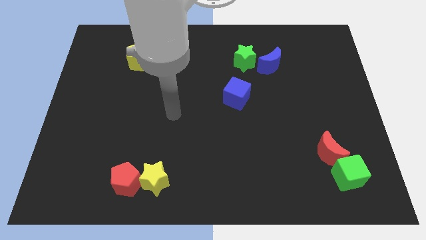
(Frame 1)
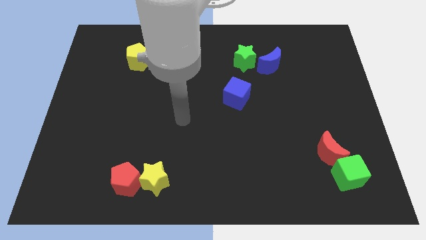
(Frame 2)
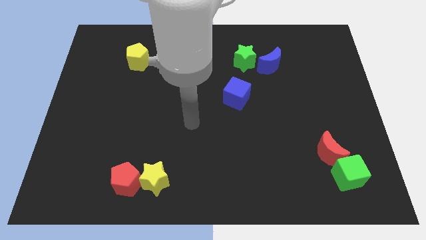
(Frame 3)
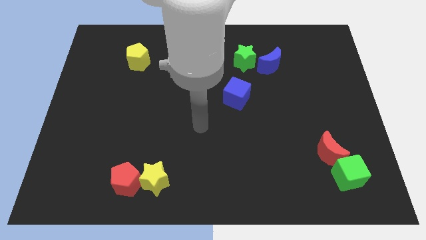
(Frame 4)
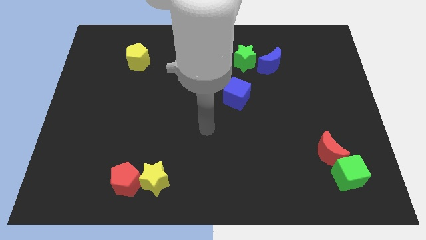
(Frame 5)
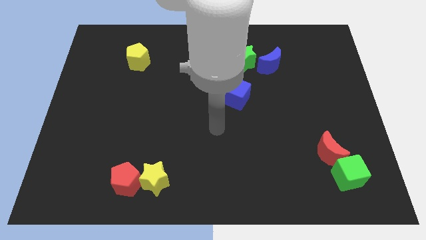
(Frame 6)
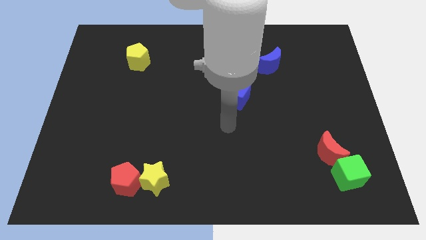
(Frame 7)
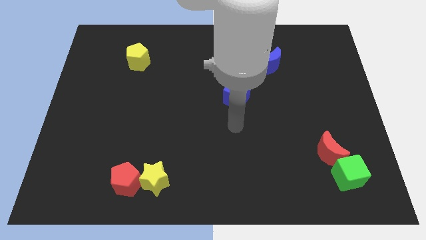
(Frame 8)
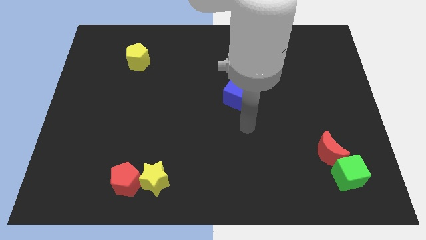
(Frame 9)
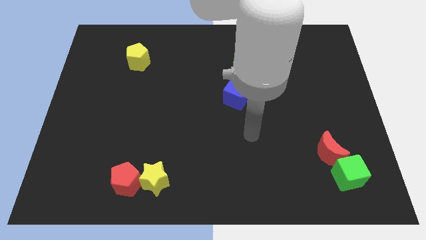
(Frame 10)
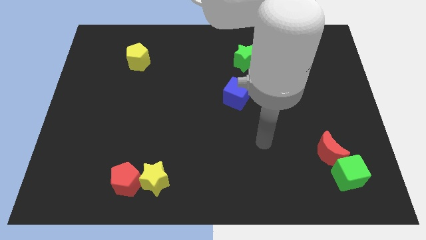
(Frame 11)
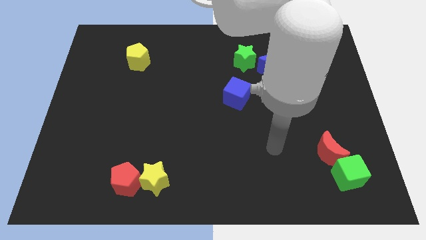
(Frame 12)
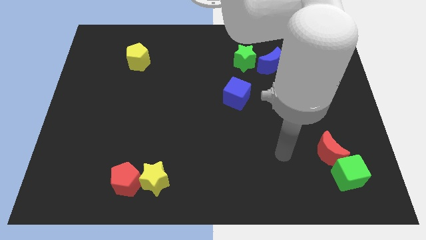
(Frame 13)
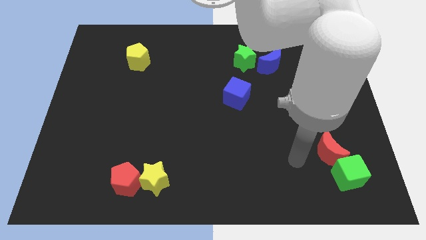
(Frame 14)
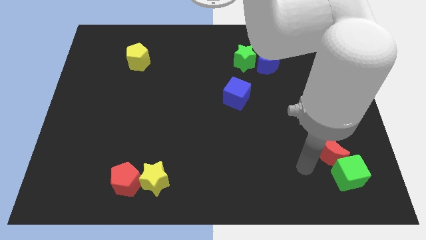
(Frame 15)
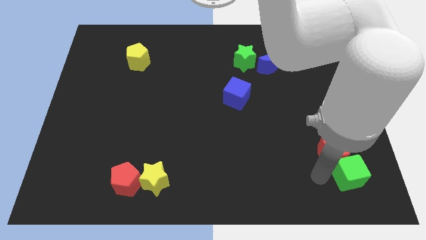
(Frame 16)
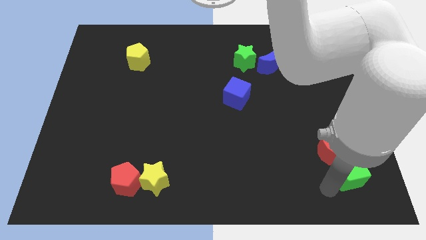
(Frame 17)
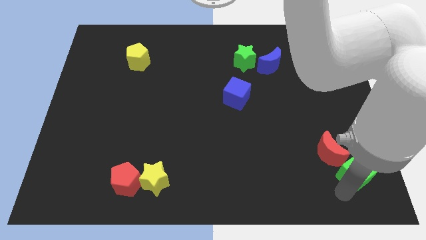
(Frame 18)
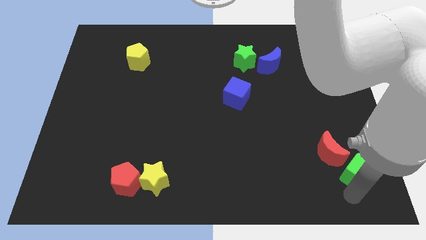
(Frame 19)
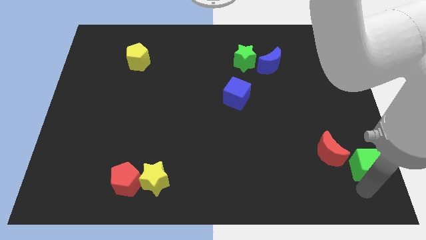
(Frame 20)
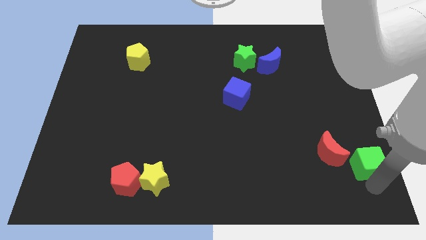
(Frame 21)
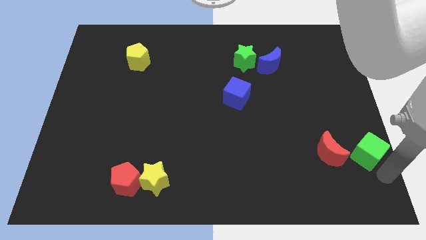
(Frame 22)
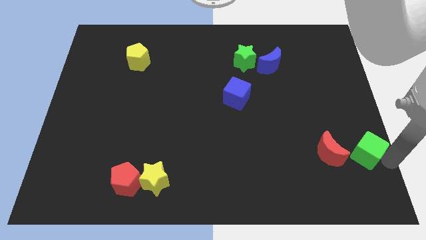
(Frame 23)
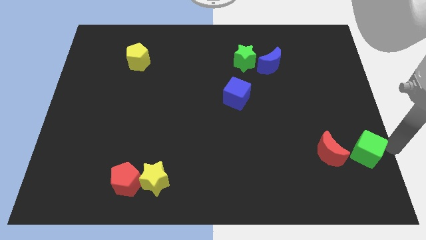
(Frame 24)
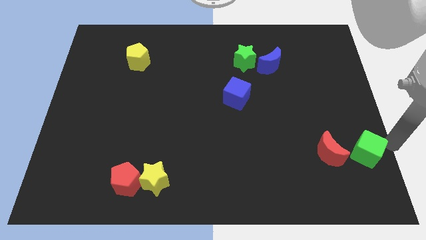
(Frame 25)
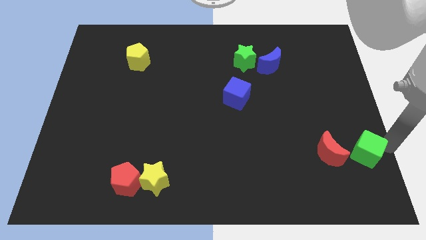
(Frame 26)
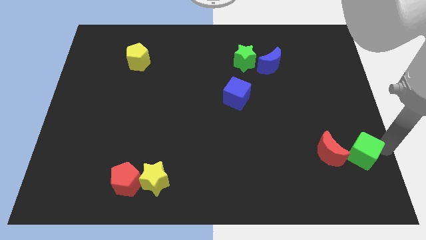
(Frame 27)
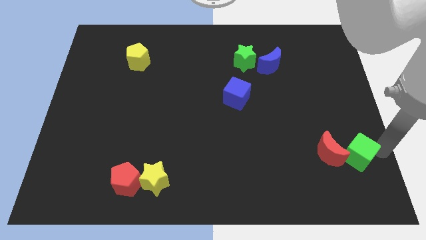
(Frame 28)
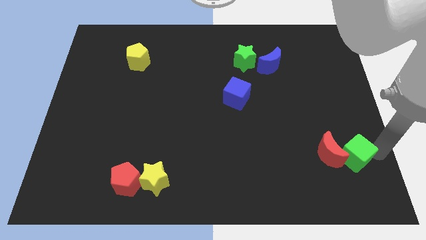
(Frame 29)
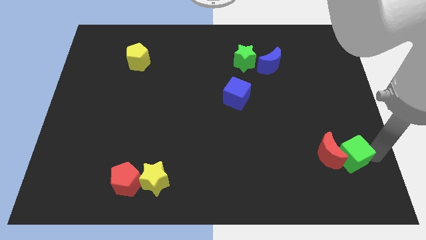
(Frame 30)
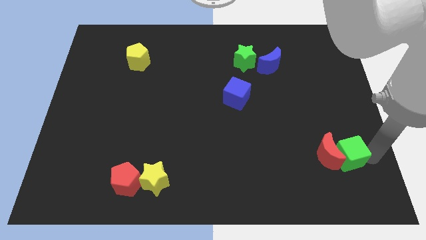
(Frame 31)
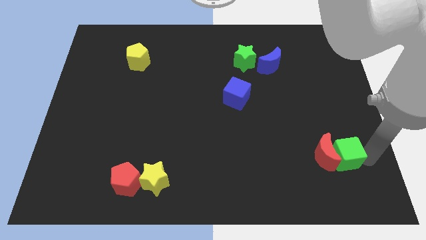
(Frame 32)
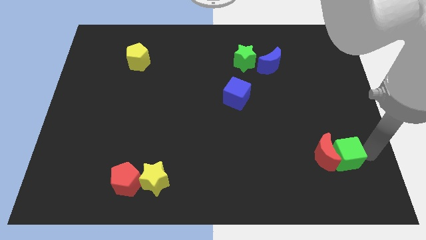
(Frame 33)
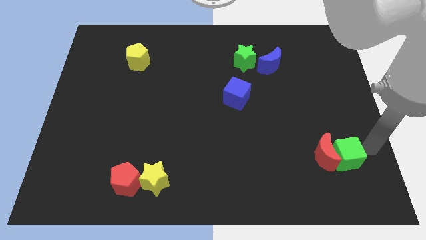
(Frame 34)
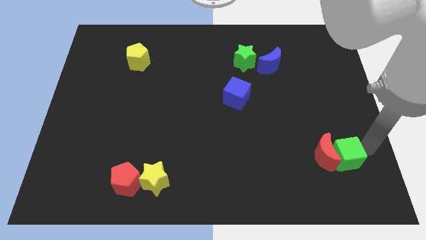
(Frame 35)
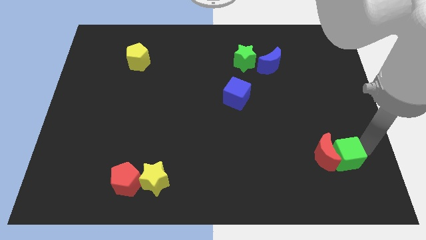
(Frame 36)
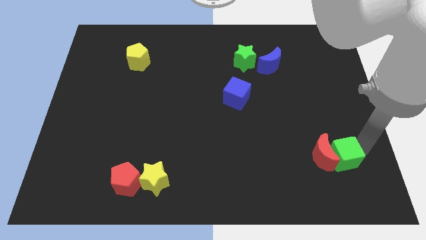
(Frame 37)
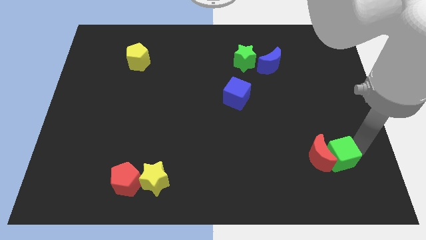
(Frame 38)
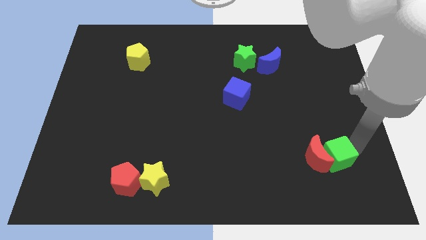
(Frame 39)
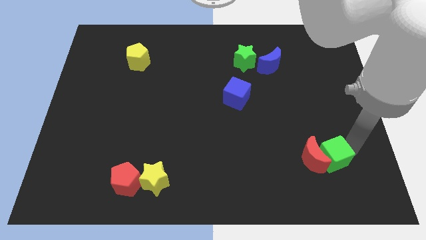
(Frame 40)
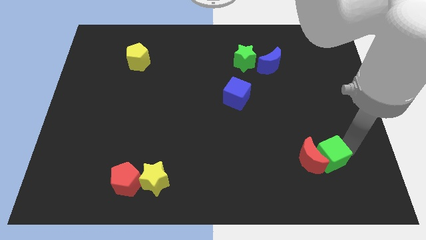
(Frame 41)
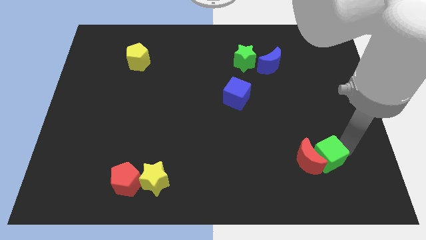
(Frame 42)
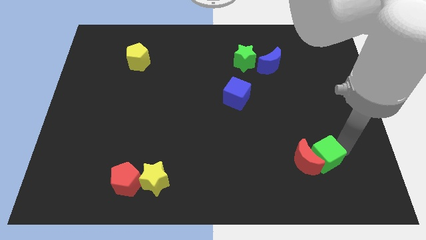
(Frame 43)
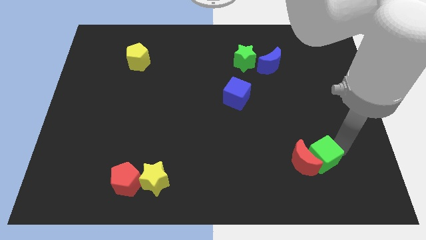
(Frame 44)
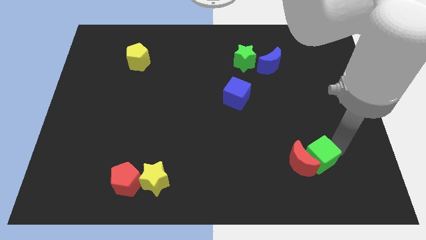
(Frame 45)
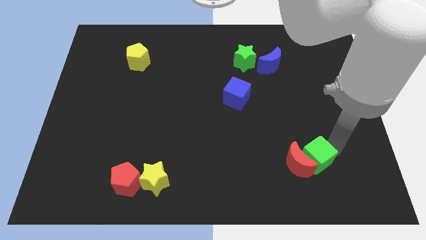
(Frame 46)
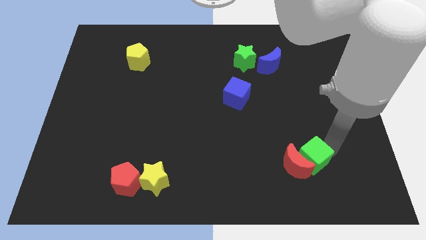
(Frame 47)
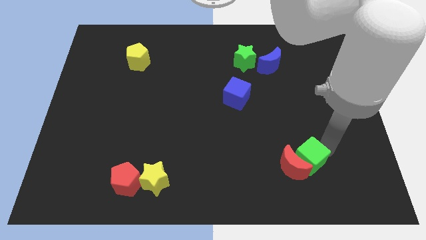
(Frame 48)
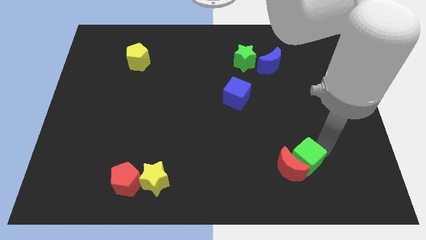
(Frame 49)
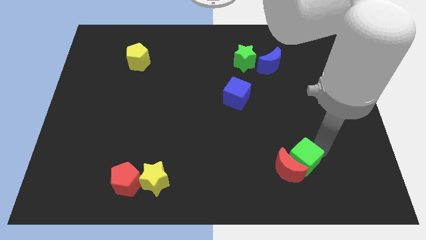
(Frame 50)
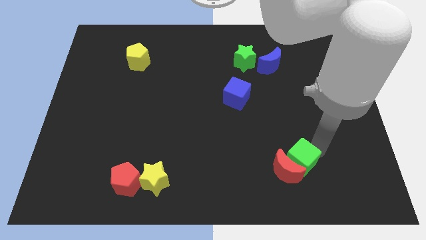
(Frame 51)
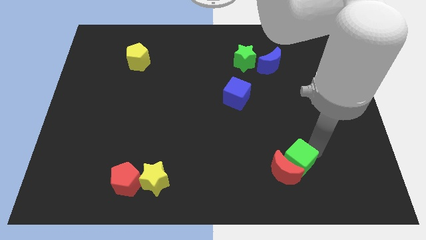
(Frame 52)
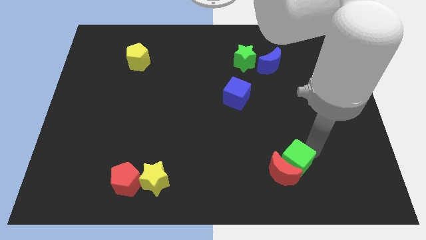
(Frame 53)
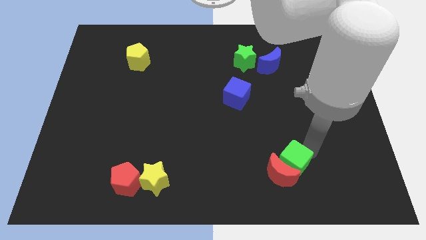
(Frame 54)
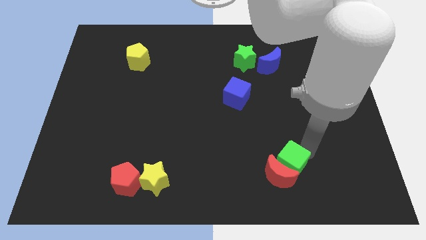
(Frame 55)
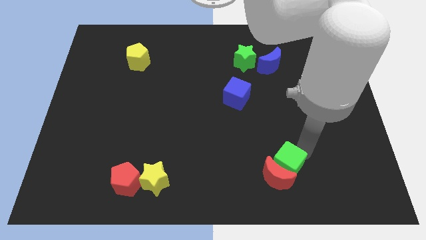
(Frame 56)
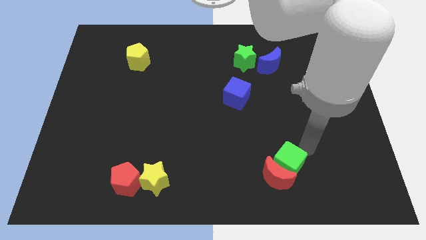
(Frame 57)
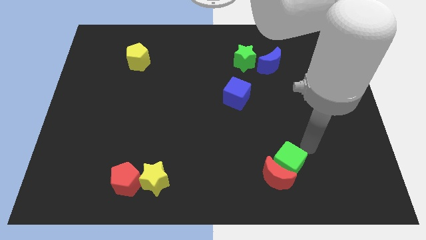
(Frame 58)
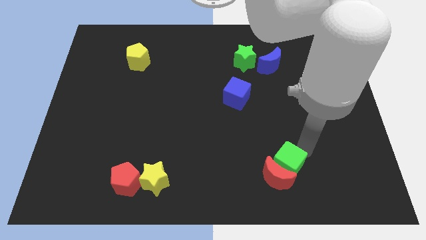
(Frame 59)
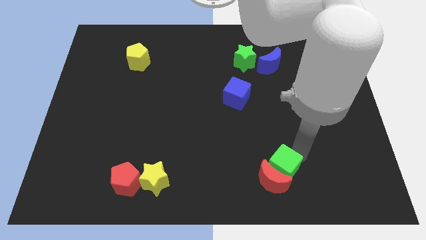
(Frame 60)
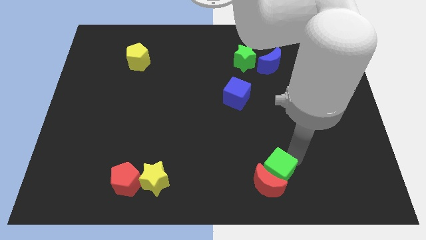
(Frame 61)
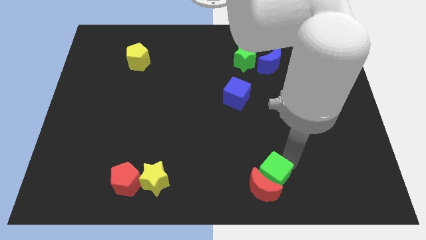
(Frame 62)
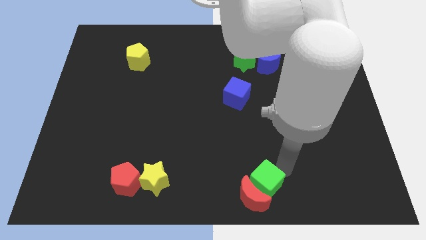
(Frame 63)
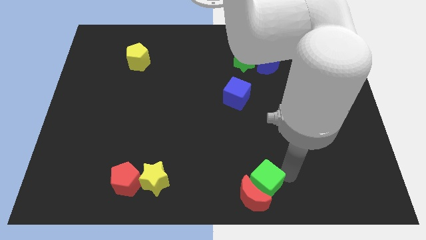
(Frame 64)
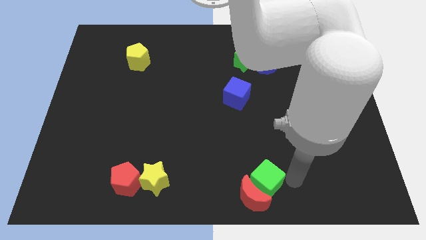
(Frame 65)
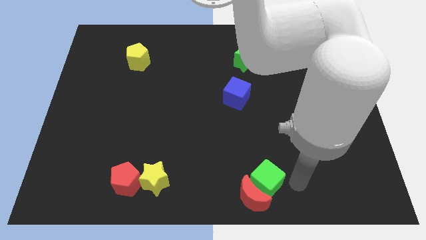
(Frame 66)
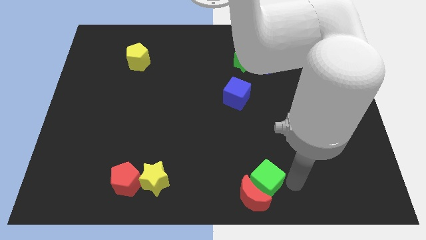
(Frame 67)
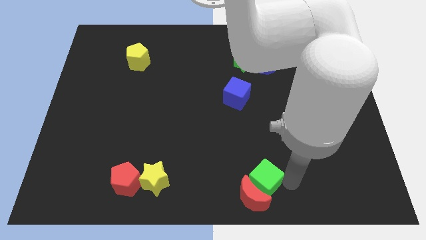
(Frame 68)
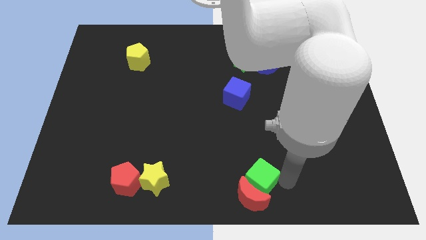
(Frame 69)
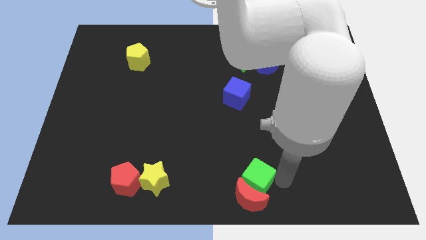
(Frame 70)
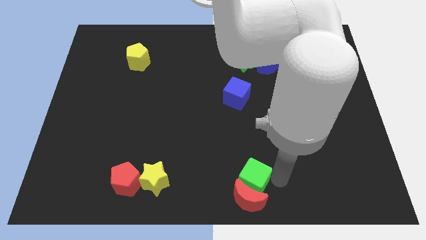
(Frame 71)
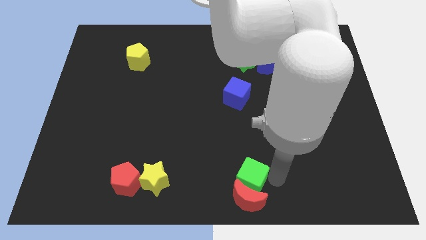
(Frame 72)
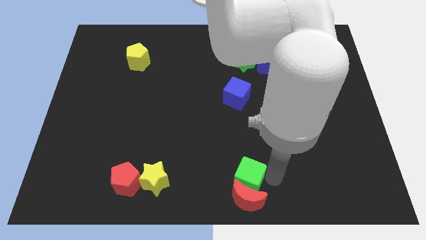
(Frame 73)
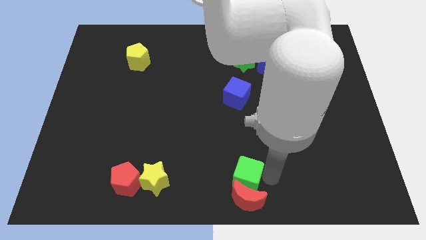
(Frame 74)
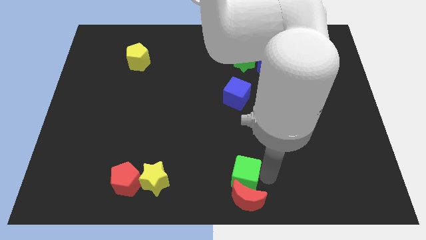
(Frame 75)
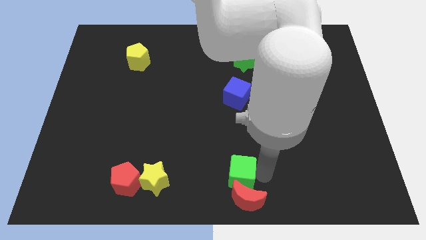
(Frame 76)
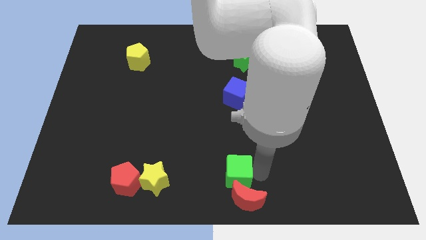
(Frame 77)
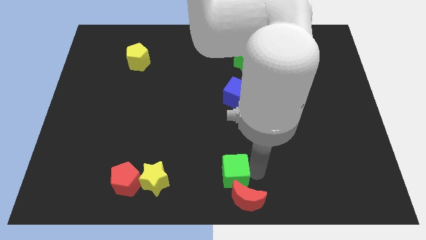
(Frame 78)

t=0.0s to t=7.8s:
put the green cube right of the yellow star
